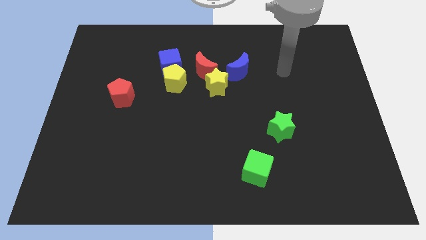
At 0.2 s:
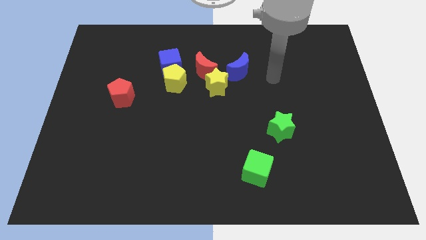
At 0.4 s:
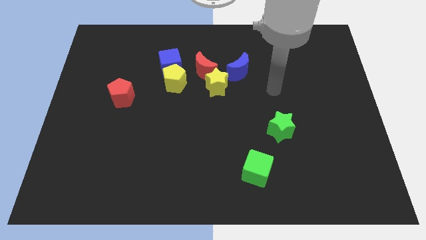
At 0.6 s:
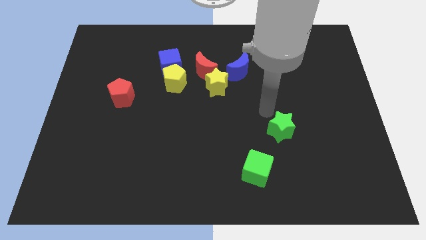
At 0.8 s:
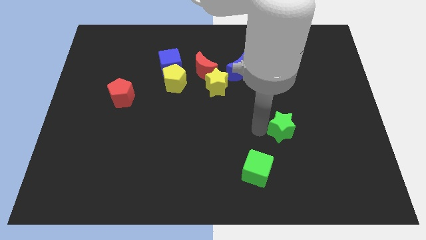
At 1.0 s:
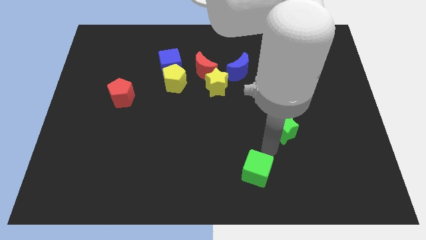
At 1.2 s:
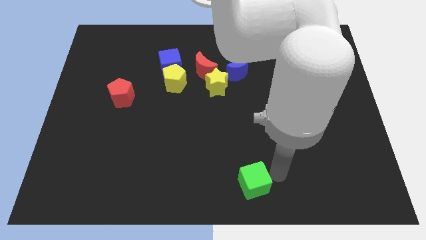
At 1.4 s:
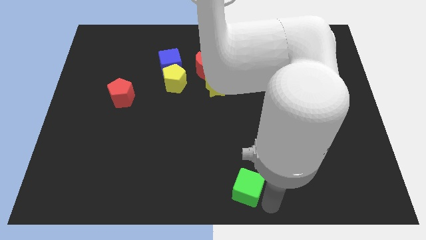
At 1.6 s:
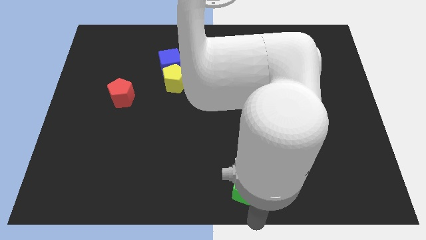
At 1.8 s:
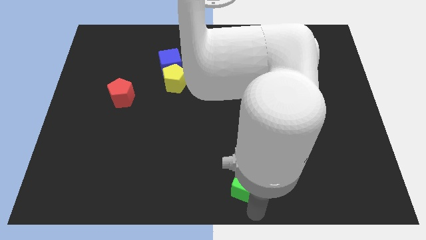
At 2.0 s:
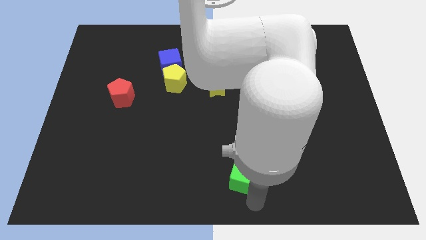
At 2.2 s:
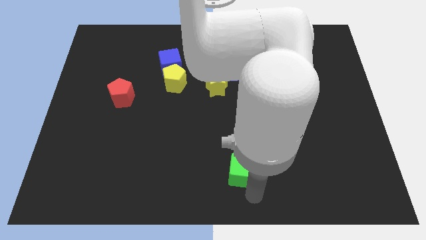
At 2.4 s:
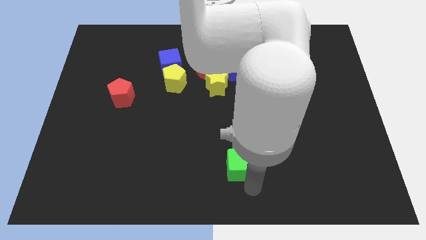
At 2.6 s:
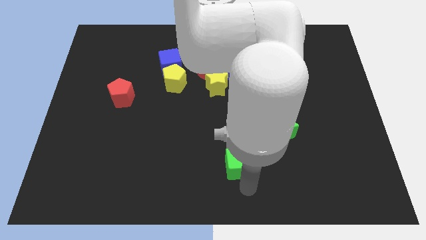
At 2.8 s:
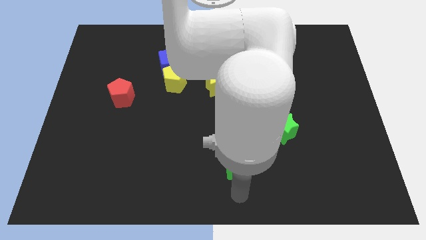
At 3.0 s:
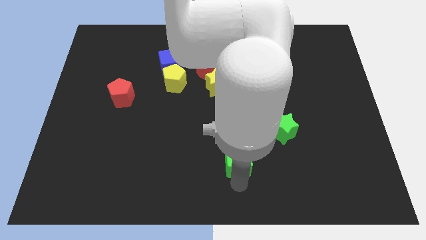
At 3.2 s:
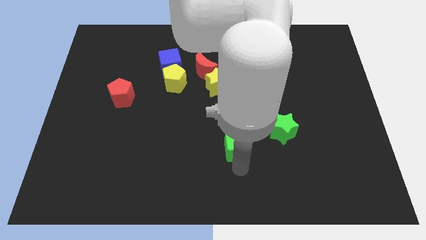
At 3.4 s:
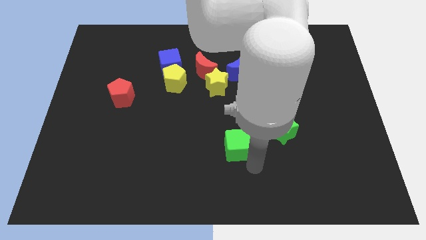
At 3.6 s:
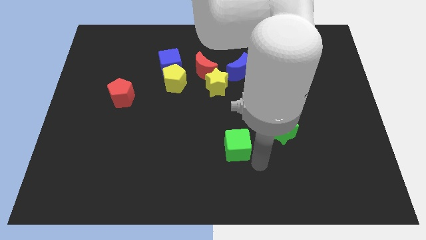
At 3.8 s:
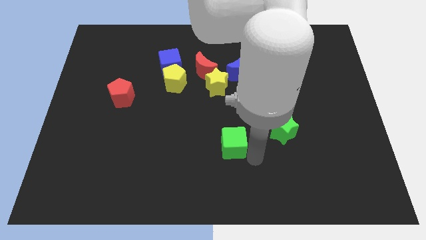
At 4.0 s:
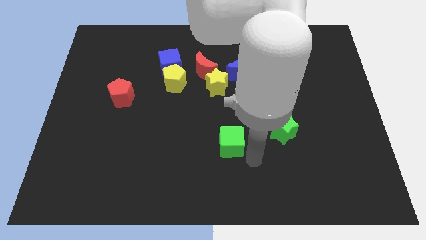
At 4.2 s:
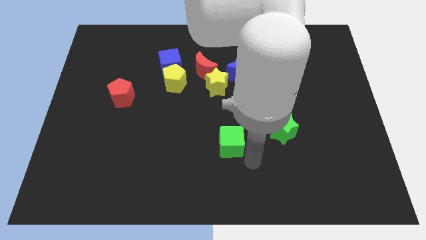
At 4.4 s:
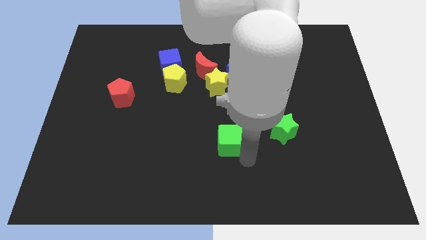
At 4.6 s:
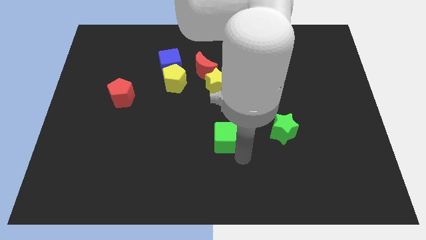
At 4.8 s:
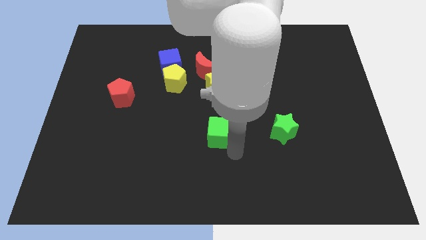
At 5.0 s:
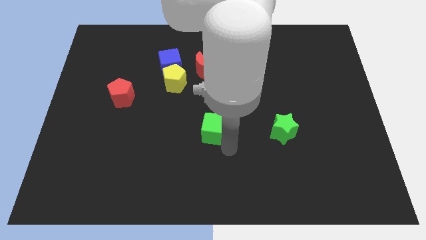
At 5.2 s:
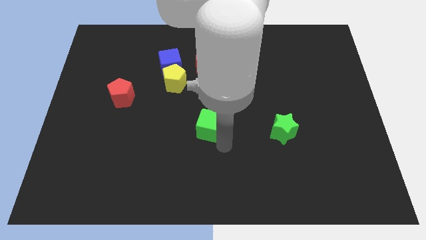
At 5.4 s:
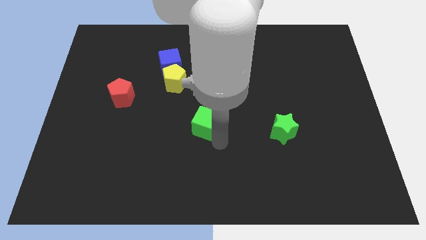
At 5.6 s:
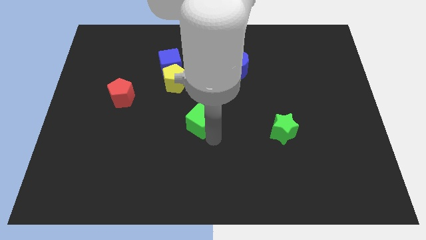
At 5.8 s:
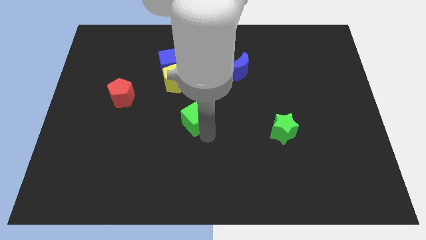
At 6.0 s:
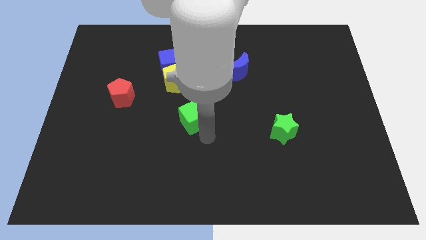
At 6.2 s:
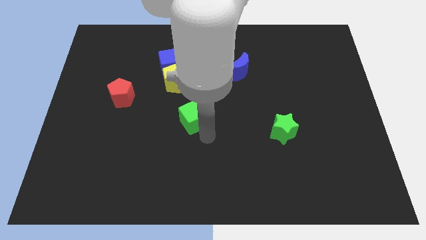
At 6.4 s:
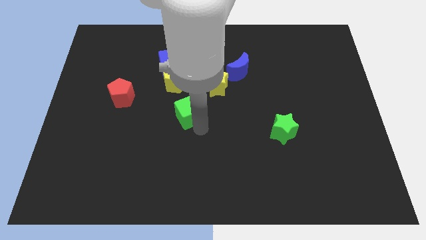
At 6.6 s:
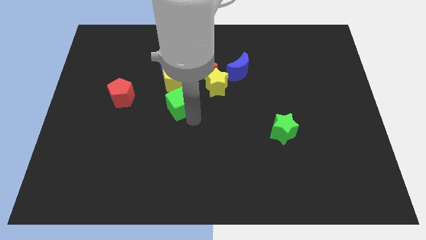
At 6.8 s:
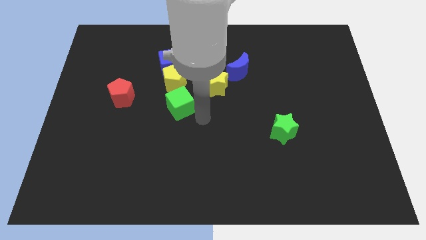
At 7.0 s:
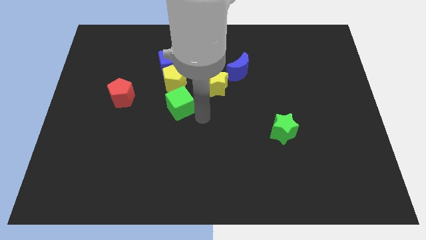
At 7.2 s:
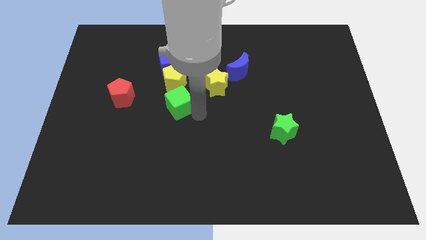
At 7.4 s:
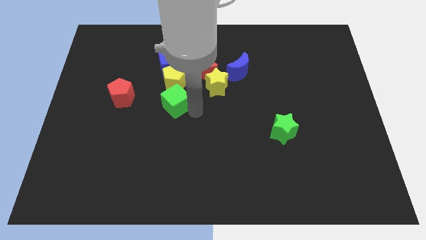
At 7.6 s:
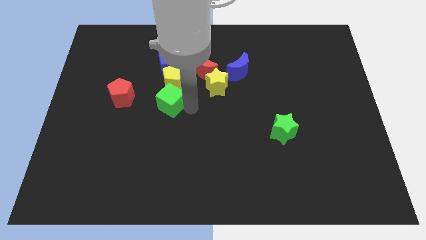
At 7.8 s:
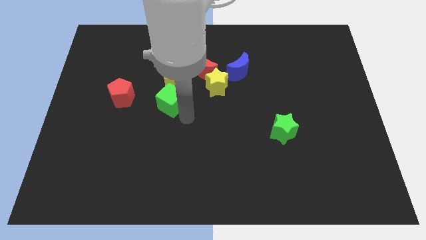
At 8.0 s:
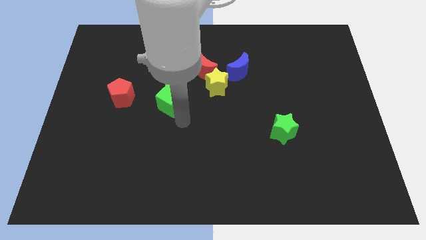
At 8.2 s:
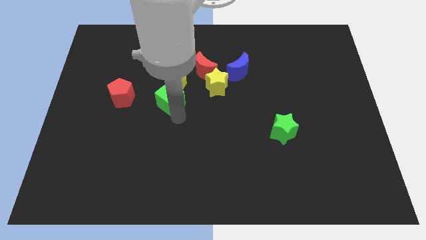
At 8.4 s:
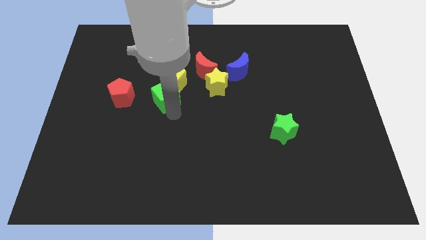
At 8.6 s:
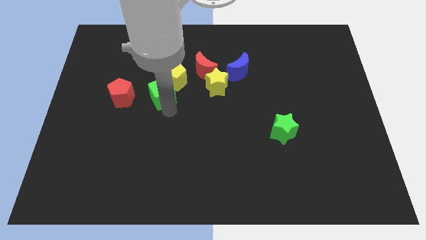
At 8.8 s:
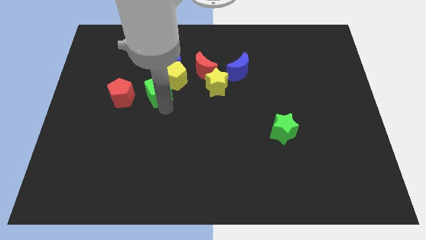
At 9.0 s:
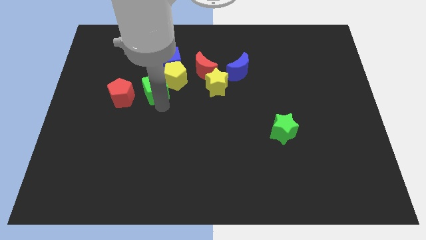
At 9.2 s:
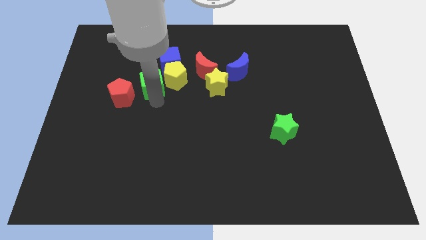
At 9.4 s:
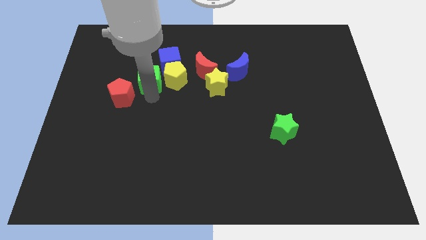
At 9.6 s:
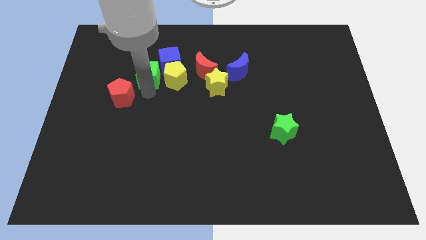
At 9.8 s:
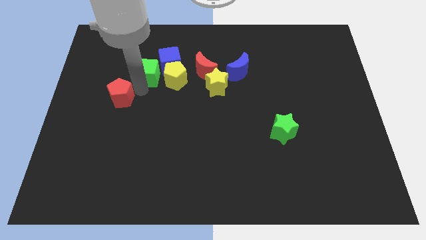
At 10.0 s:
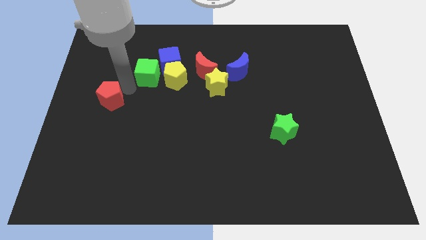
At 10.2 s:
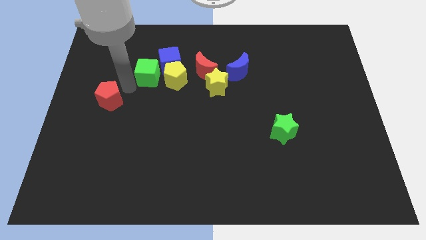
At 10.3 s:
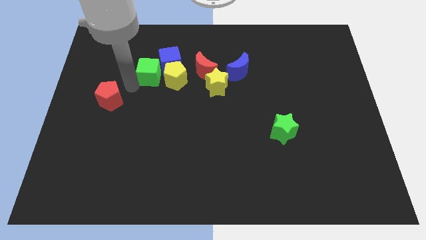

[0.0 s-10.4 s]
put the green cube close to the blue cube

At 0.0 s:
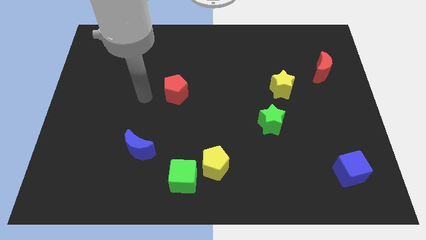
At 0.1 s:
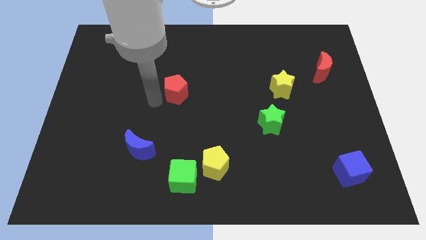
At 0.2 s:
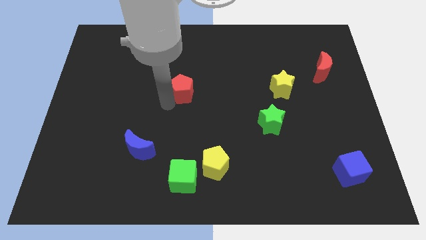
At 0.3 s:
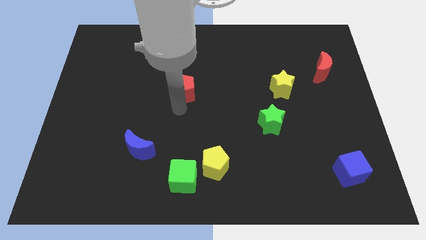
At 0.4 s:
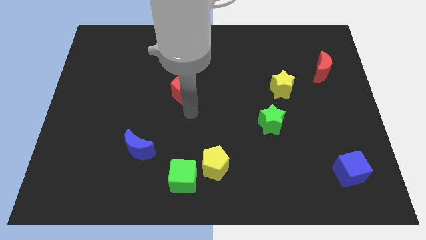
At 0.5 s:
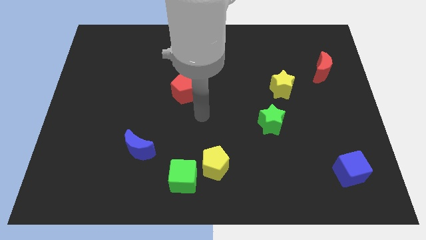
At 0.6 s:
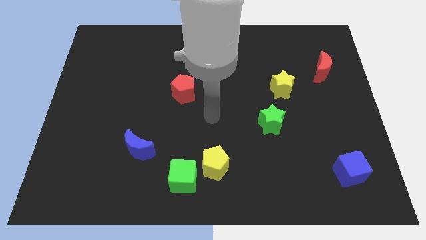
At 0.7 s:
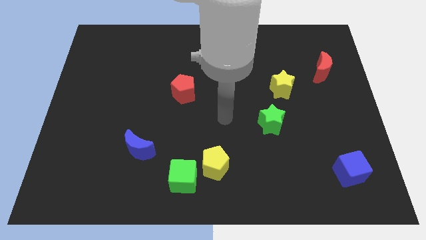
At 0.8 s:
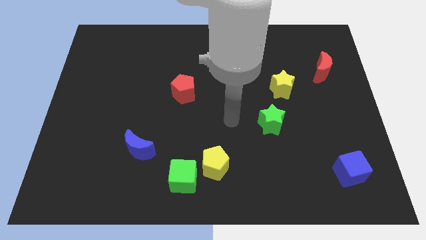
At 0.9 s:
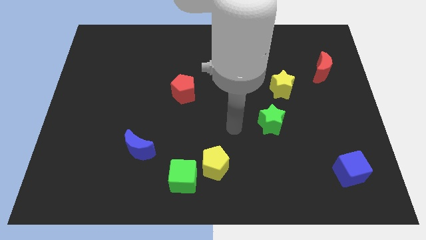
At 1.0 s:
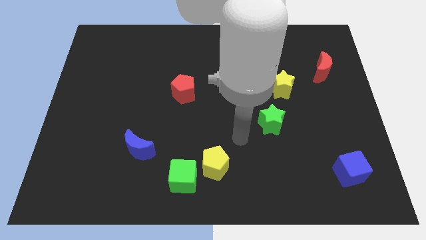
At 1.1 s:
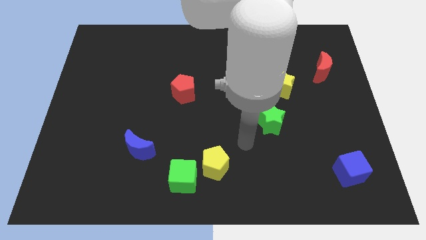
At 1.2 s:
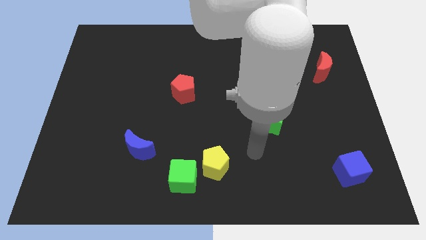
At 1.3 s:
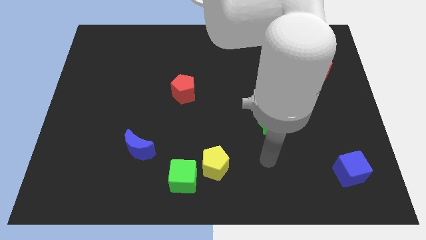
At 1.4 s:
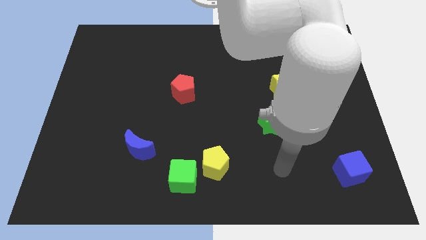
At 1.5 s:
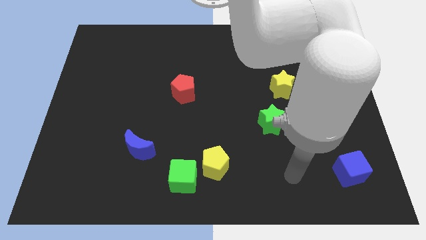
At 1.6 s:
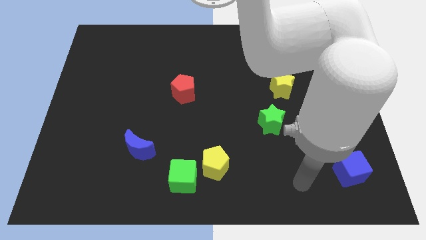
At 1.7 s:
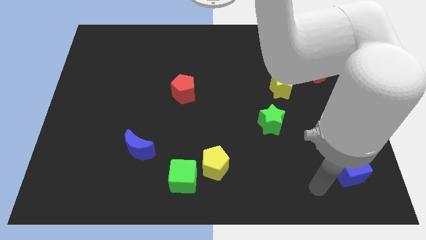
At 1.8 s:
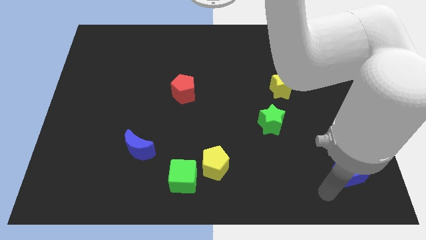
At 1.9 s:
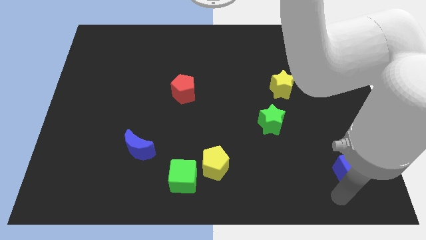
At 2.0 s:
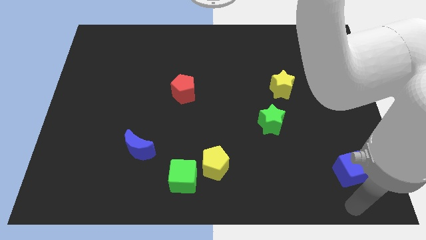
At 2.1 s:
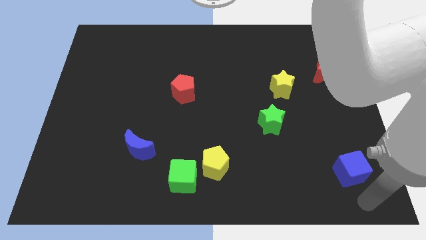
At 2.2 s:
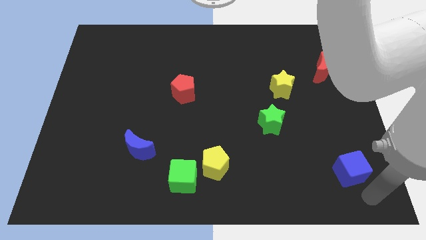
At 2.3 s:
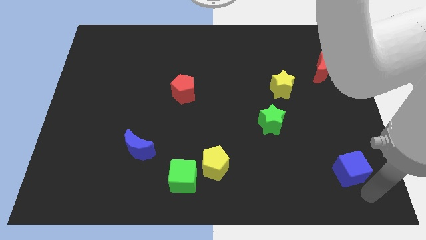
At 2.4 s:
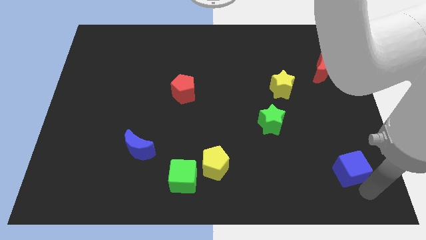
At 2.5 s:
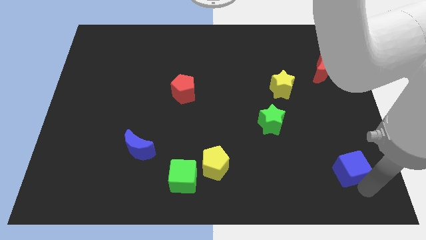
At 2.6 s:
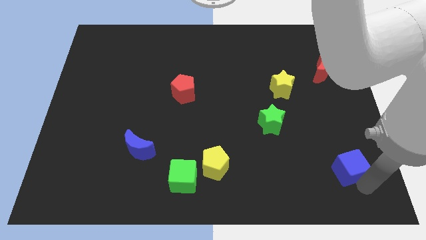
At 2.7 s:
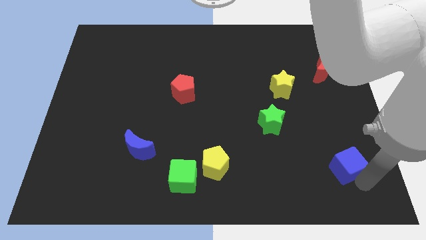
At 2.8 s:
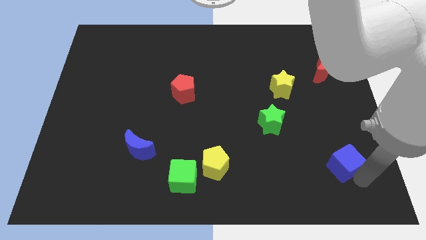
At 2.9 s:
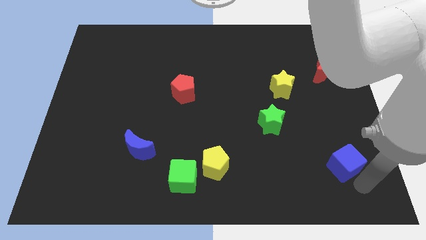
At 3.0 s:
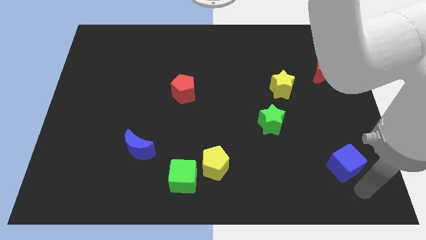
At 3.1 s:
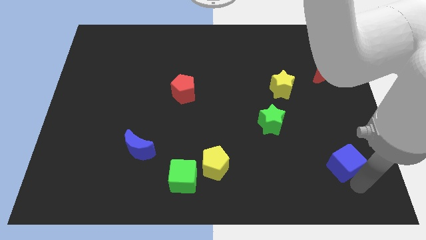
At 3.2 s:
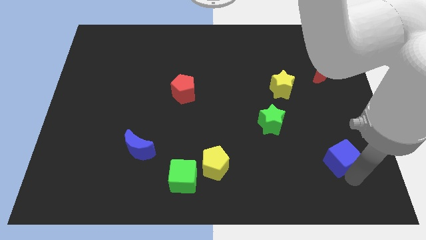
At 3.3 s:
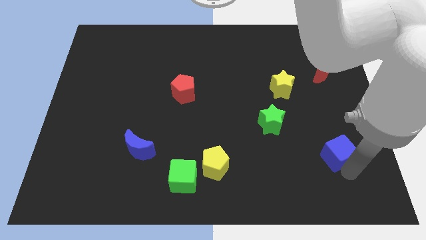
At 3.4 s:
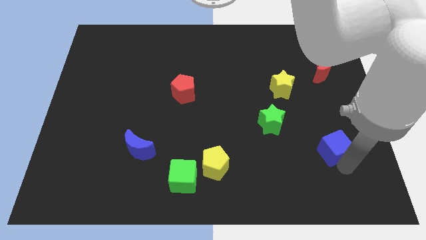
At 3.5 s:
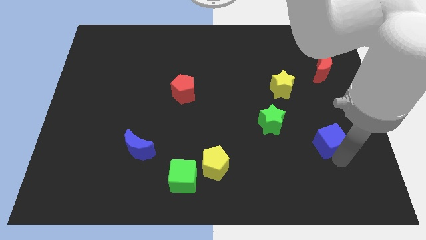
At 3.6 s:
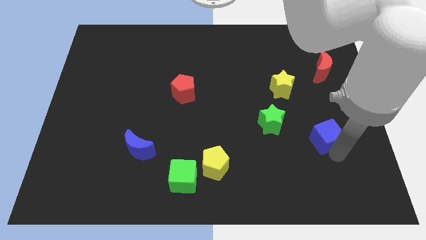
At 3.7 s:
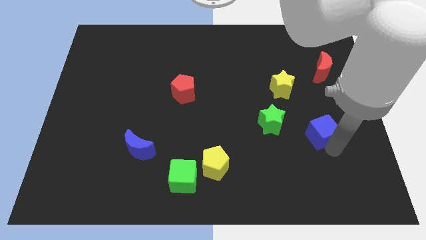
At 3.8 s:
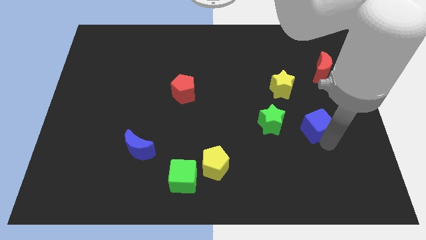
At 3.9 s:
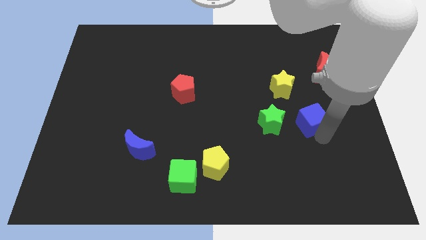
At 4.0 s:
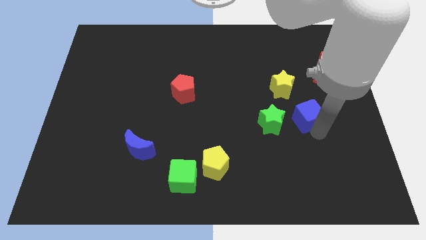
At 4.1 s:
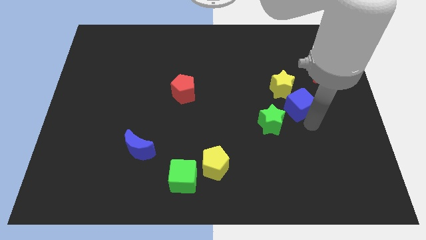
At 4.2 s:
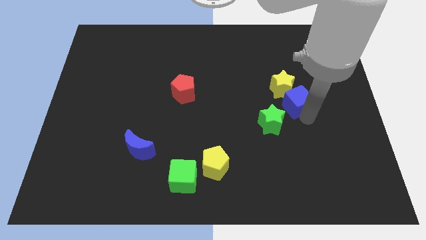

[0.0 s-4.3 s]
put the blue cube next to the yellow star
